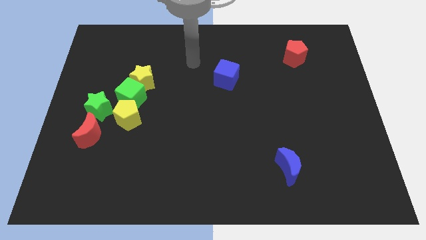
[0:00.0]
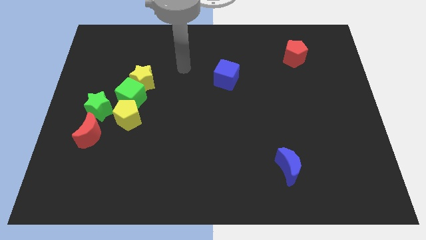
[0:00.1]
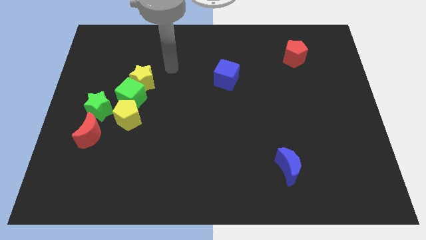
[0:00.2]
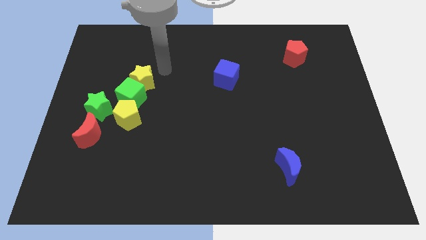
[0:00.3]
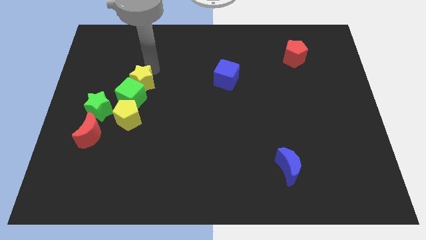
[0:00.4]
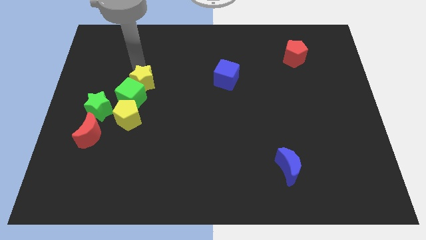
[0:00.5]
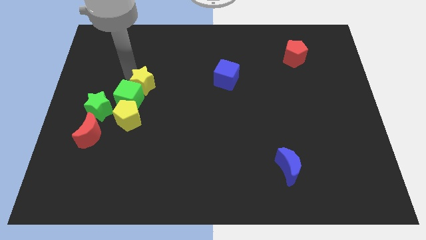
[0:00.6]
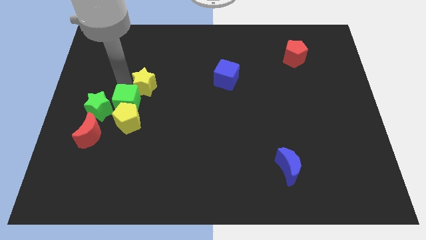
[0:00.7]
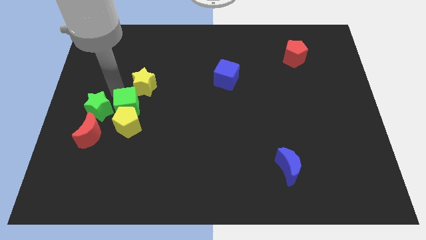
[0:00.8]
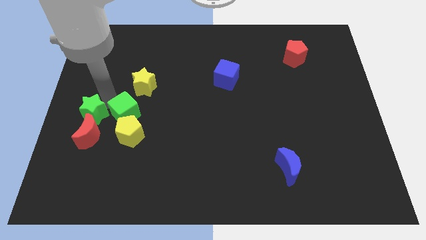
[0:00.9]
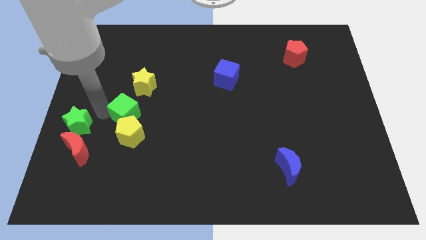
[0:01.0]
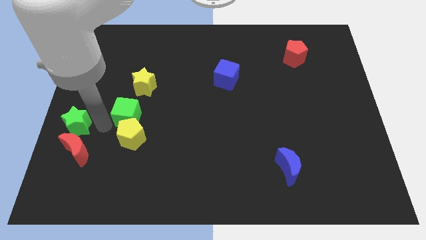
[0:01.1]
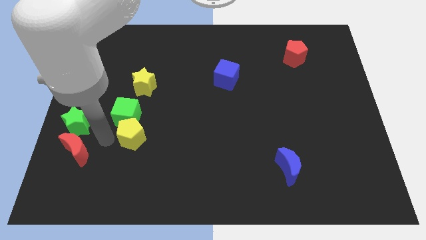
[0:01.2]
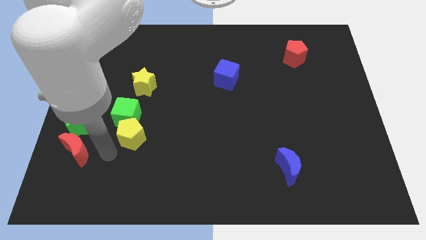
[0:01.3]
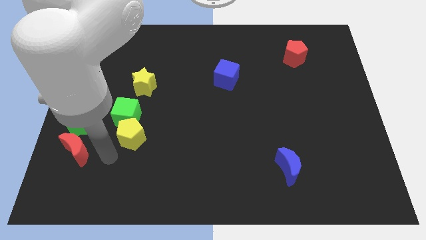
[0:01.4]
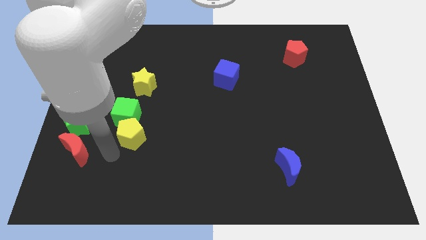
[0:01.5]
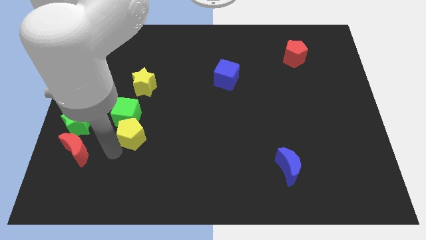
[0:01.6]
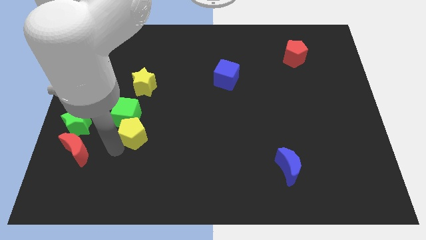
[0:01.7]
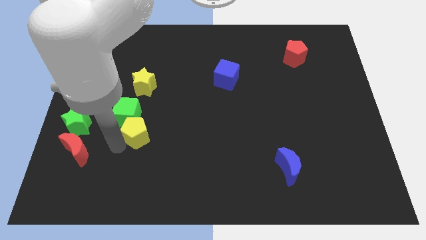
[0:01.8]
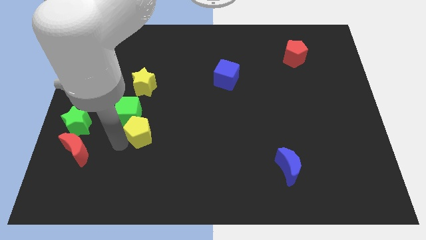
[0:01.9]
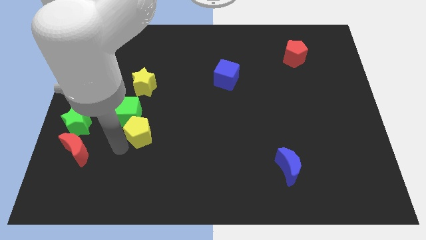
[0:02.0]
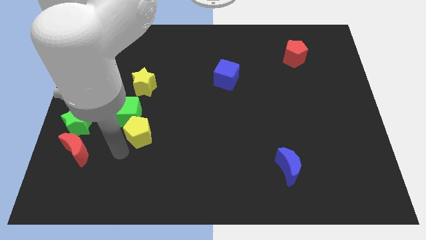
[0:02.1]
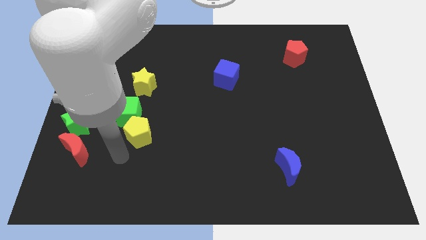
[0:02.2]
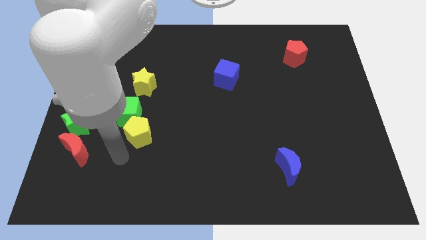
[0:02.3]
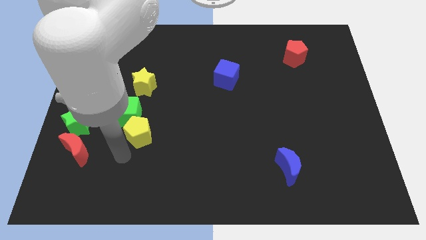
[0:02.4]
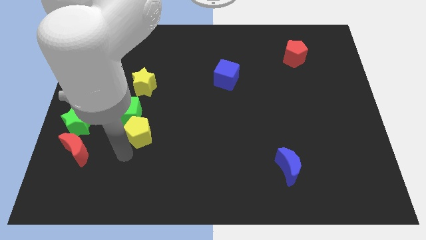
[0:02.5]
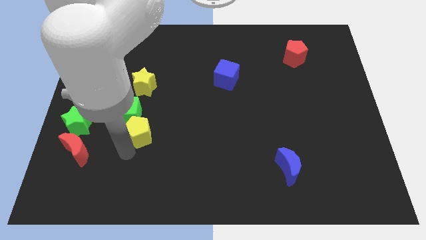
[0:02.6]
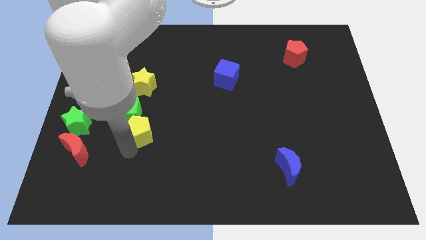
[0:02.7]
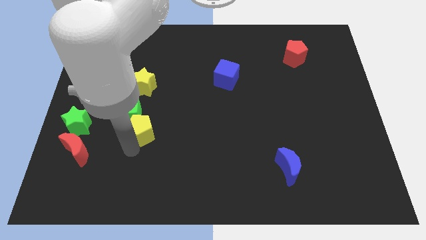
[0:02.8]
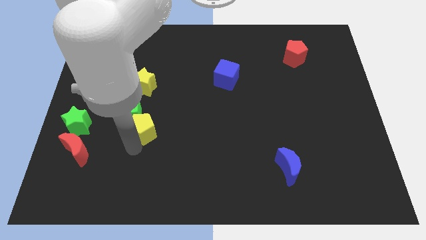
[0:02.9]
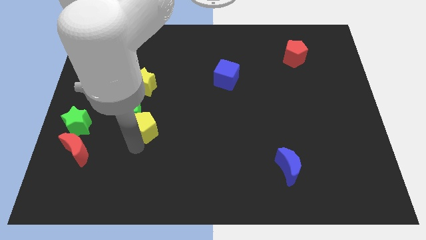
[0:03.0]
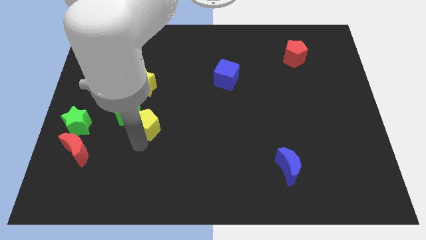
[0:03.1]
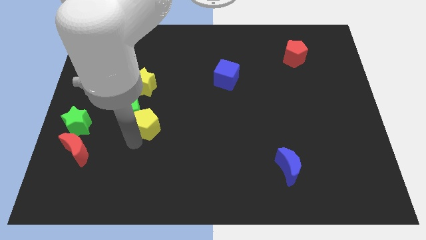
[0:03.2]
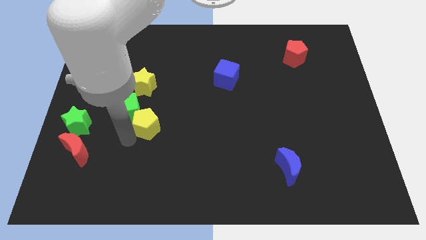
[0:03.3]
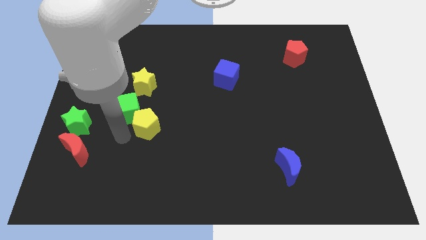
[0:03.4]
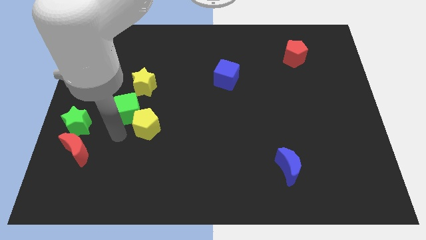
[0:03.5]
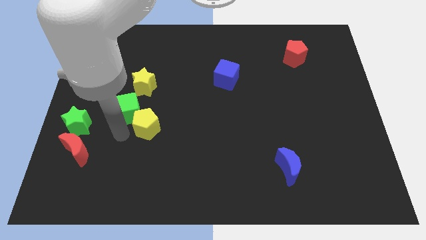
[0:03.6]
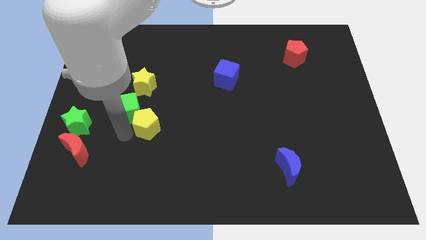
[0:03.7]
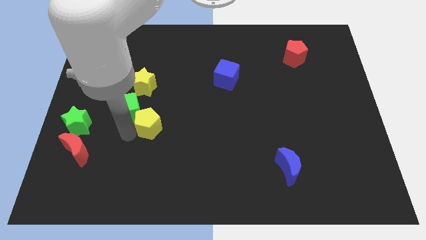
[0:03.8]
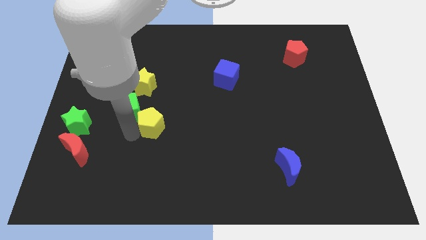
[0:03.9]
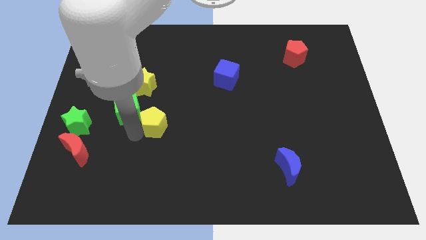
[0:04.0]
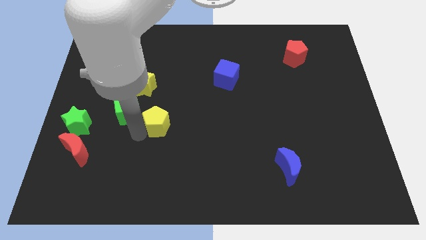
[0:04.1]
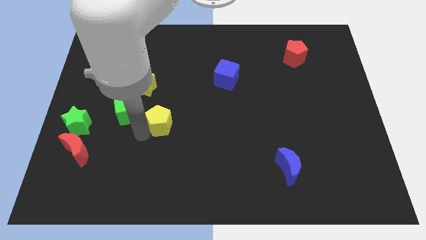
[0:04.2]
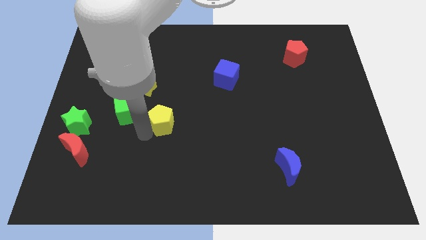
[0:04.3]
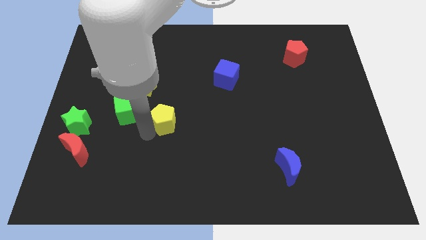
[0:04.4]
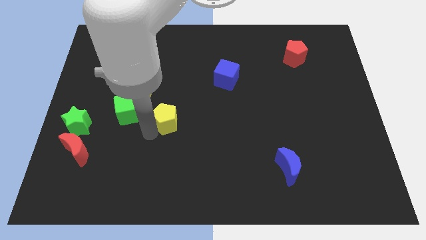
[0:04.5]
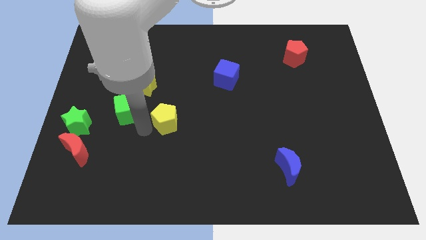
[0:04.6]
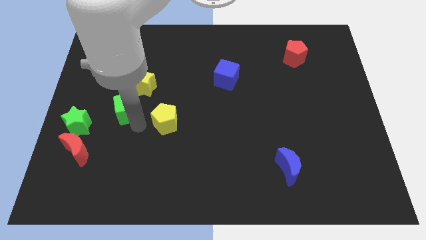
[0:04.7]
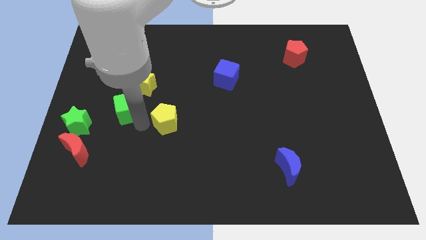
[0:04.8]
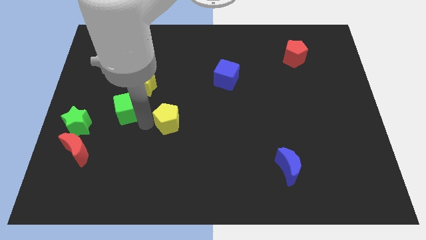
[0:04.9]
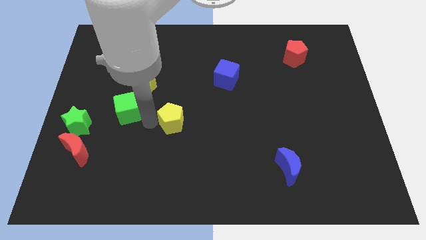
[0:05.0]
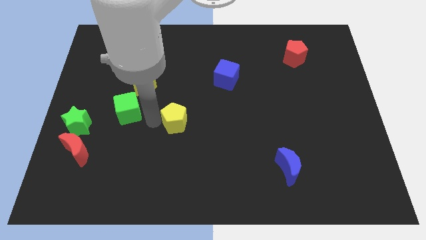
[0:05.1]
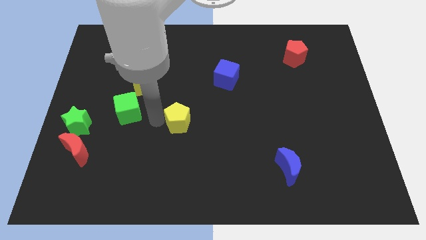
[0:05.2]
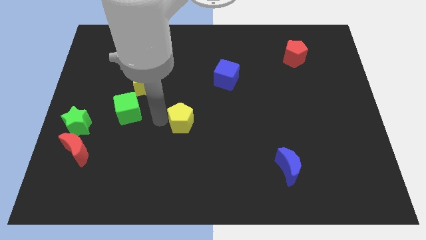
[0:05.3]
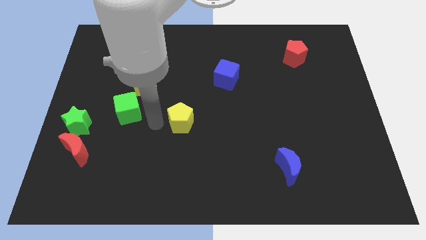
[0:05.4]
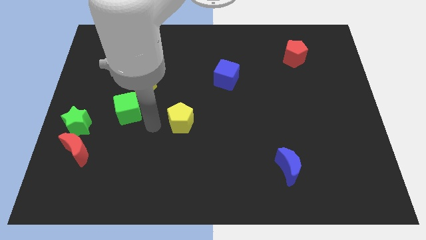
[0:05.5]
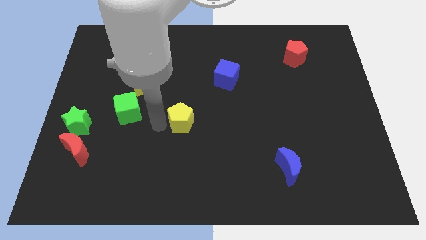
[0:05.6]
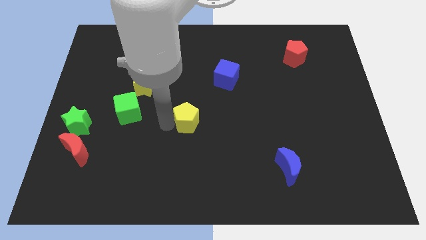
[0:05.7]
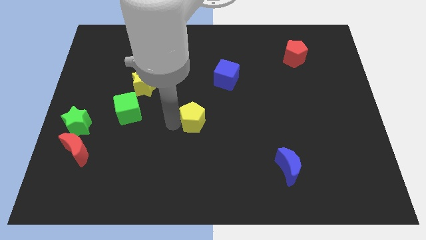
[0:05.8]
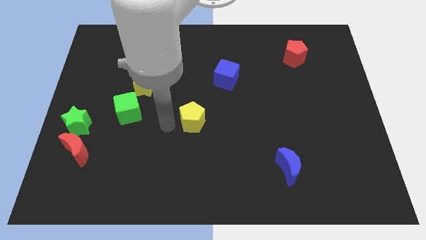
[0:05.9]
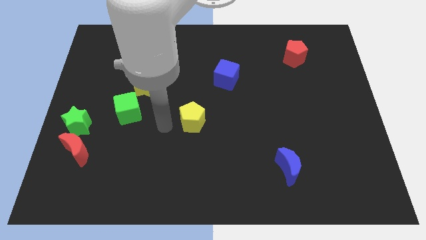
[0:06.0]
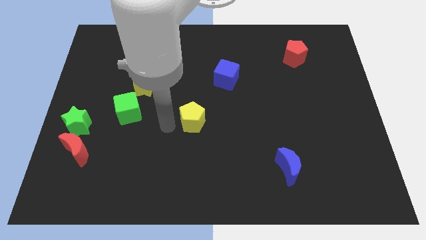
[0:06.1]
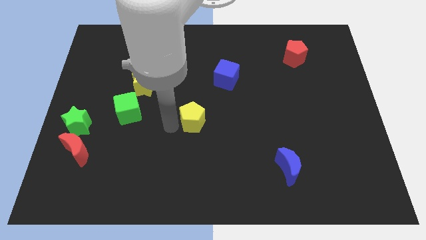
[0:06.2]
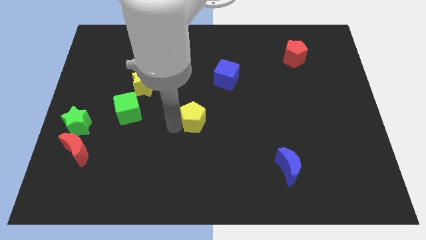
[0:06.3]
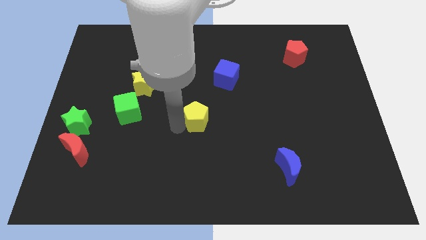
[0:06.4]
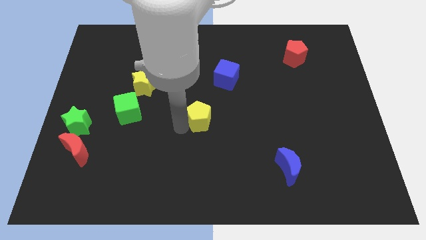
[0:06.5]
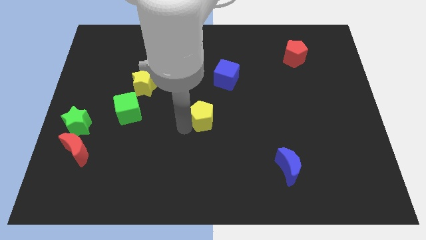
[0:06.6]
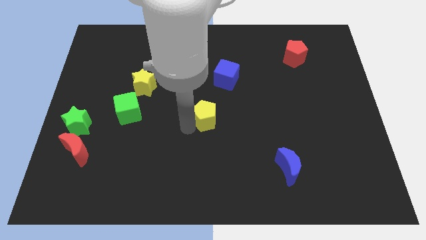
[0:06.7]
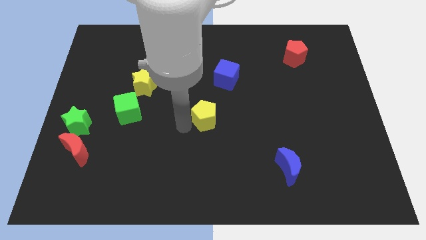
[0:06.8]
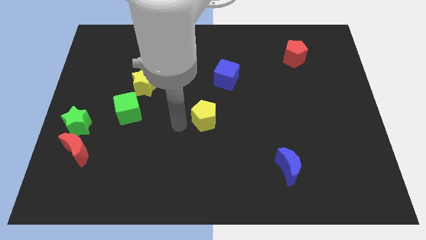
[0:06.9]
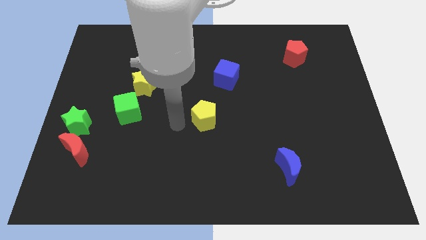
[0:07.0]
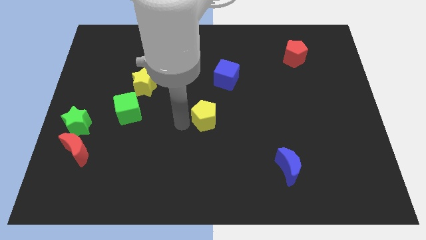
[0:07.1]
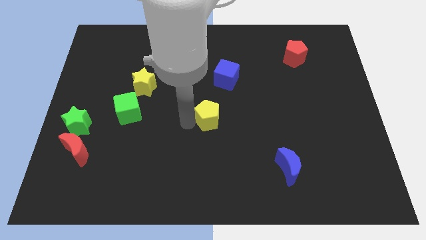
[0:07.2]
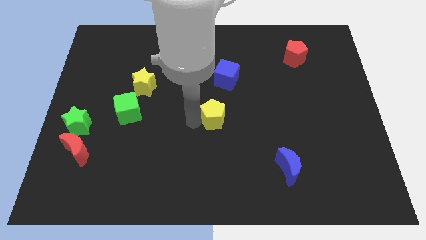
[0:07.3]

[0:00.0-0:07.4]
slide the yellow pentagon right

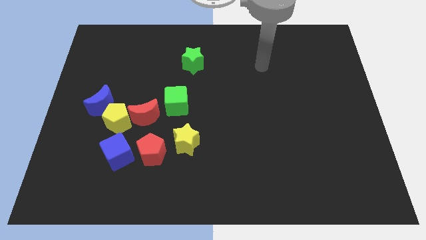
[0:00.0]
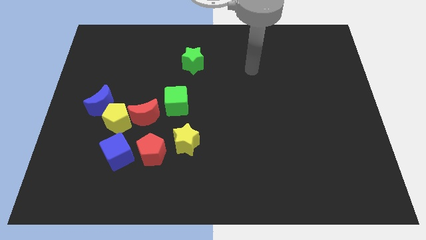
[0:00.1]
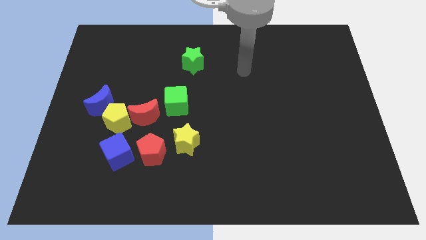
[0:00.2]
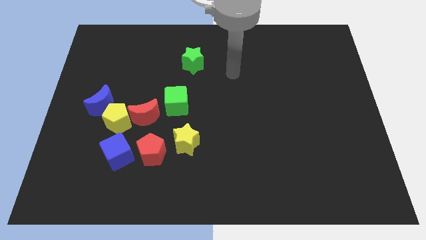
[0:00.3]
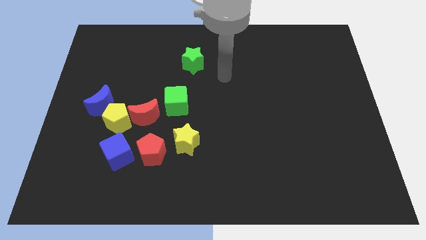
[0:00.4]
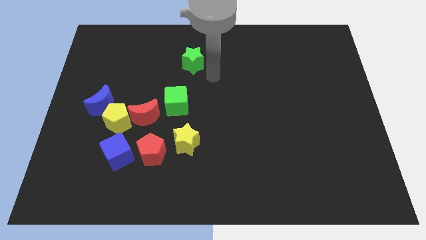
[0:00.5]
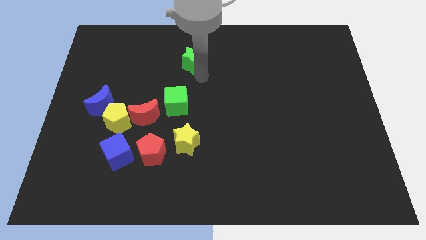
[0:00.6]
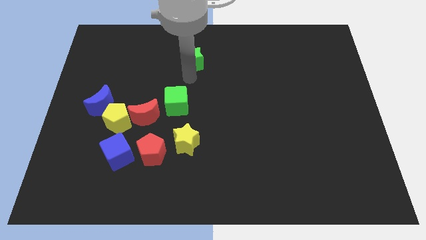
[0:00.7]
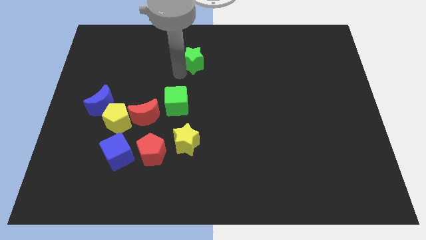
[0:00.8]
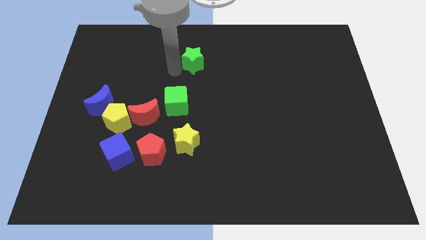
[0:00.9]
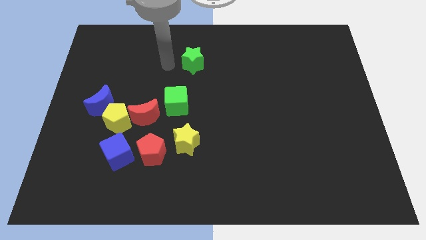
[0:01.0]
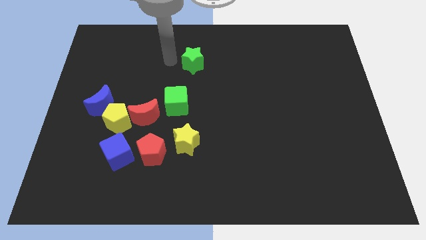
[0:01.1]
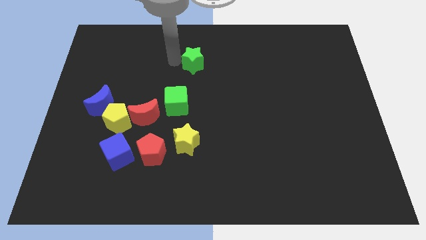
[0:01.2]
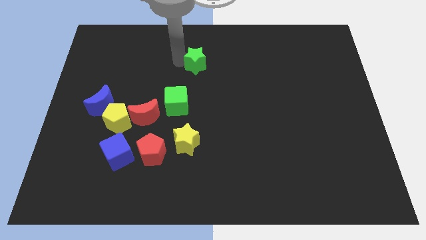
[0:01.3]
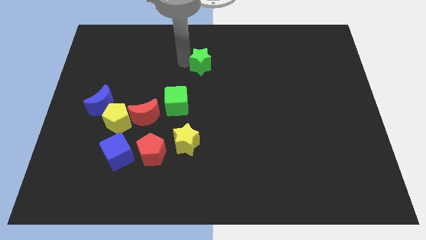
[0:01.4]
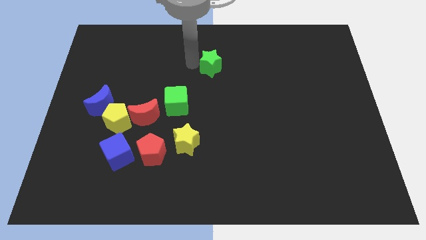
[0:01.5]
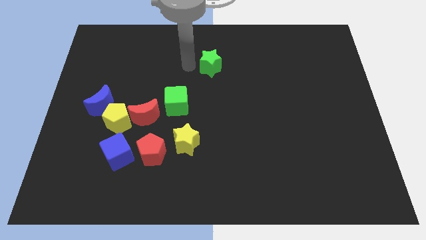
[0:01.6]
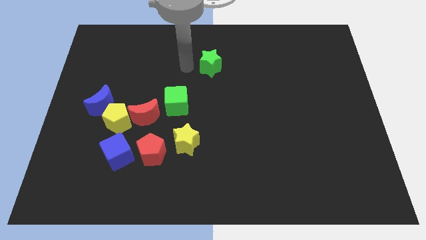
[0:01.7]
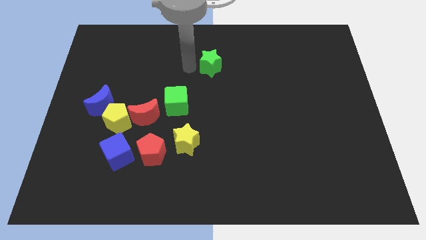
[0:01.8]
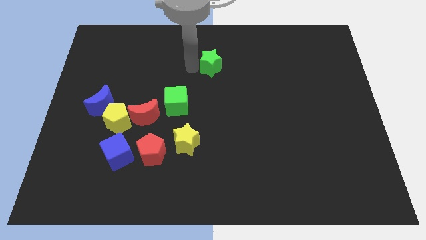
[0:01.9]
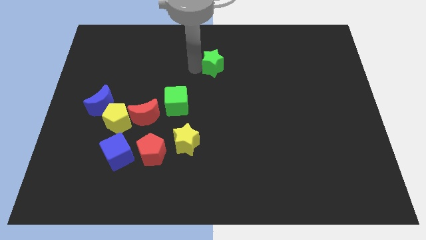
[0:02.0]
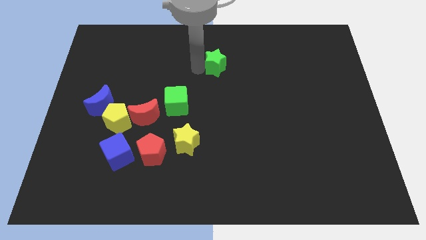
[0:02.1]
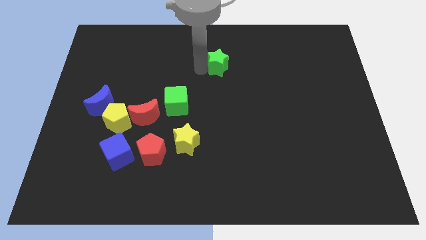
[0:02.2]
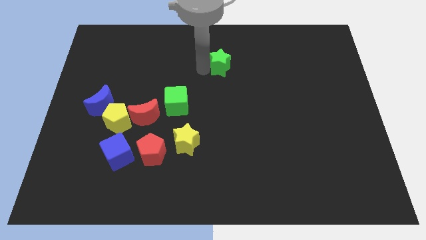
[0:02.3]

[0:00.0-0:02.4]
move the green star to the right a little bit
